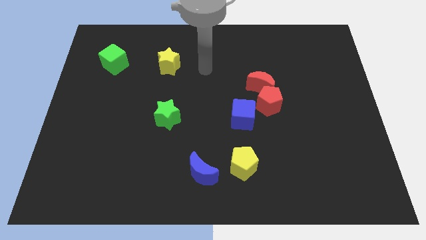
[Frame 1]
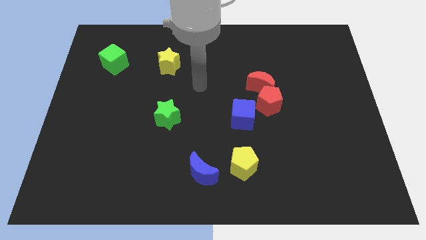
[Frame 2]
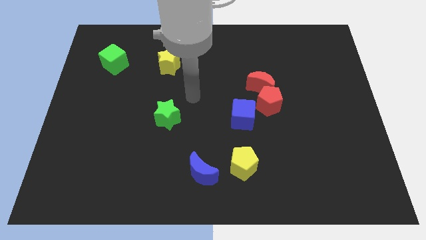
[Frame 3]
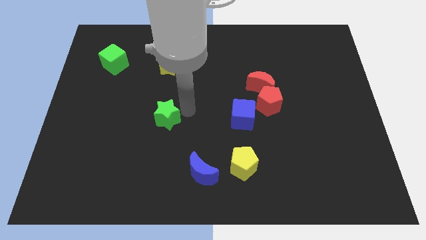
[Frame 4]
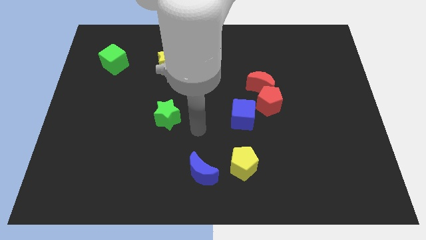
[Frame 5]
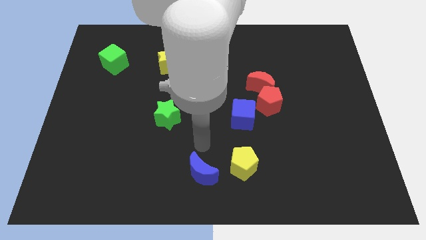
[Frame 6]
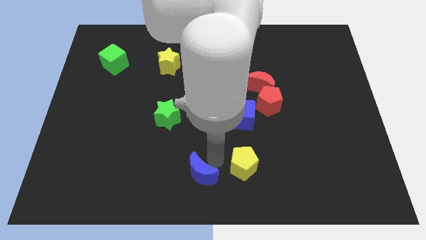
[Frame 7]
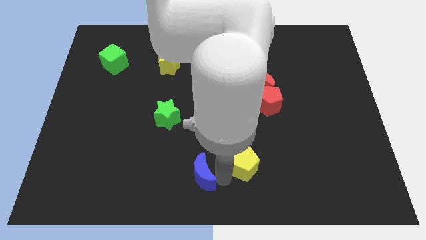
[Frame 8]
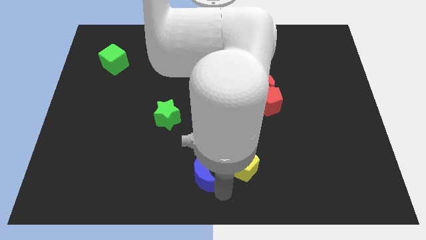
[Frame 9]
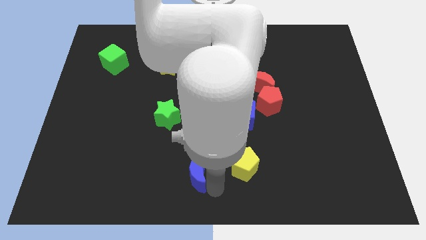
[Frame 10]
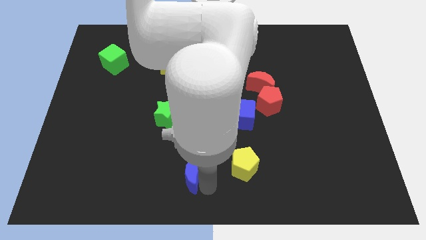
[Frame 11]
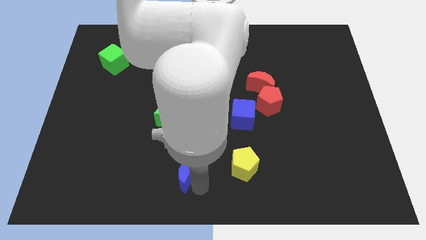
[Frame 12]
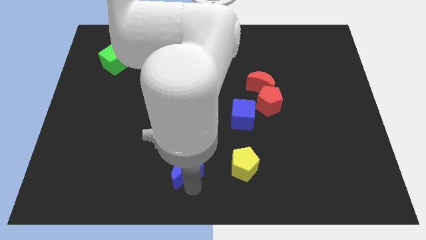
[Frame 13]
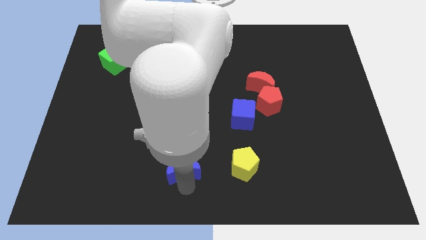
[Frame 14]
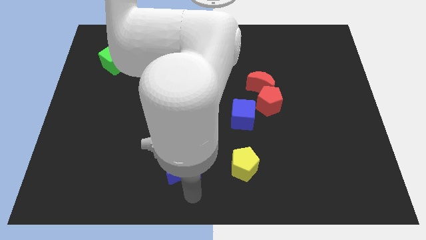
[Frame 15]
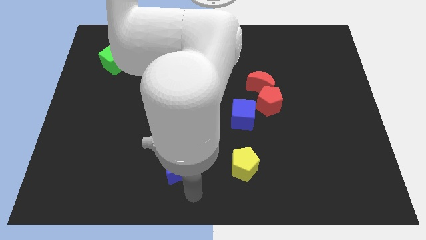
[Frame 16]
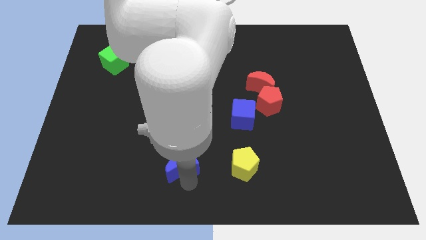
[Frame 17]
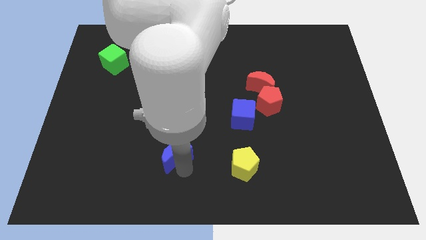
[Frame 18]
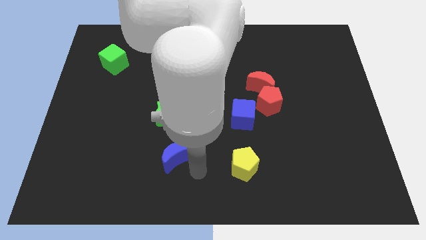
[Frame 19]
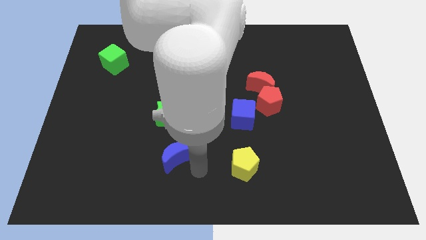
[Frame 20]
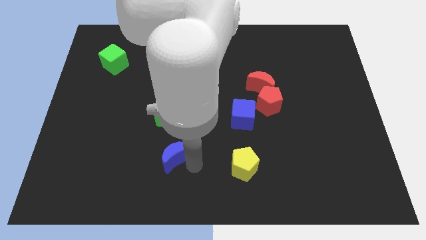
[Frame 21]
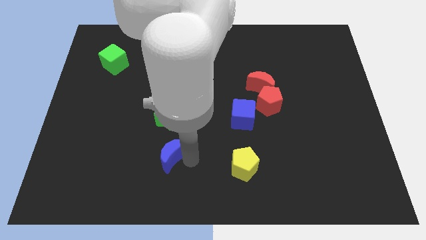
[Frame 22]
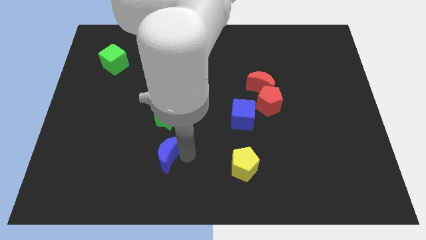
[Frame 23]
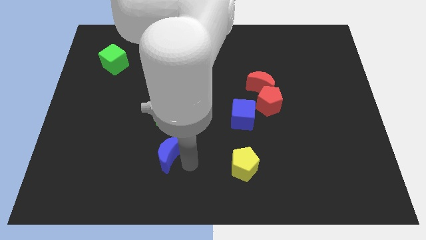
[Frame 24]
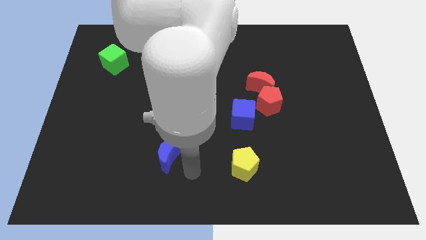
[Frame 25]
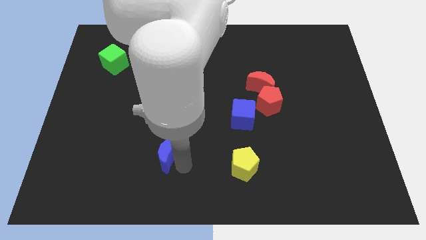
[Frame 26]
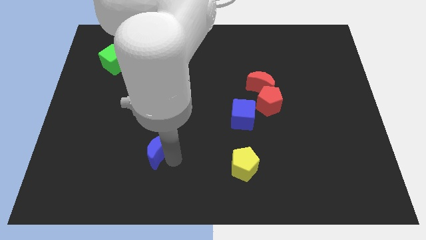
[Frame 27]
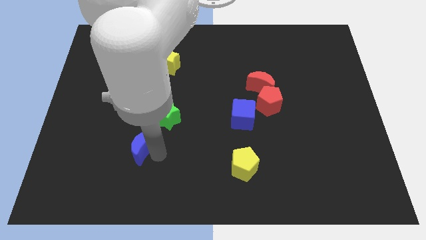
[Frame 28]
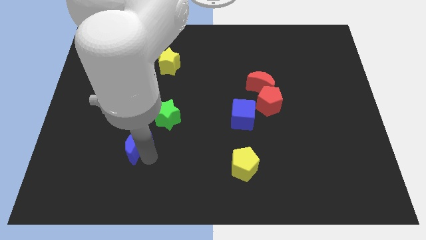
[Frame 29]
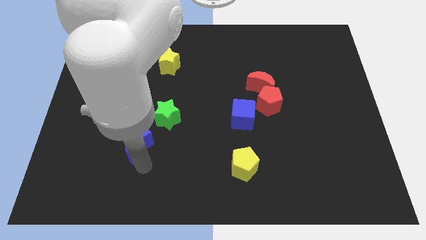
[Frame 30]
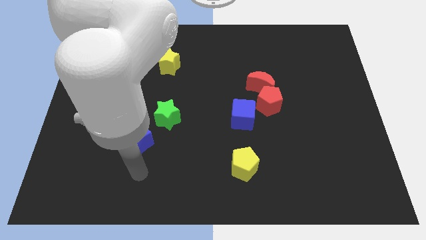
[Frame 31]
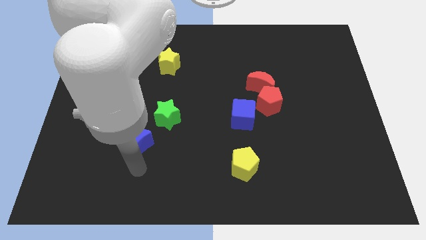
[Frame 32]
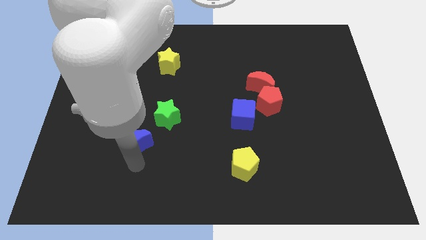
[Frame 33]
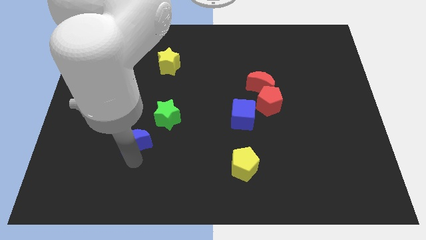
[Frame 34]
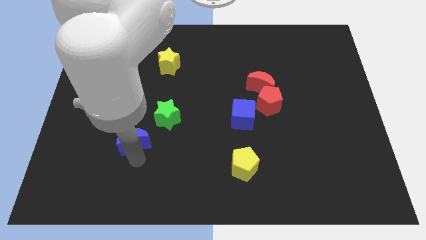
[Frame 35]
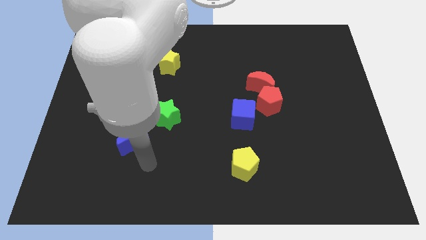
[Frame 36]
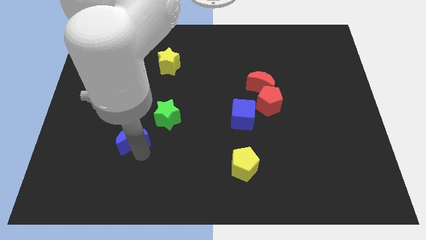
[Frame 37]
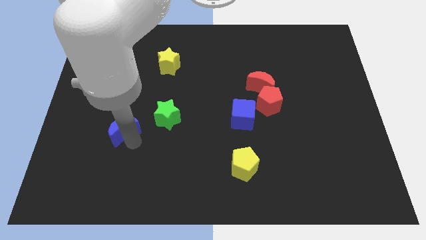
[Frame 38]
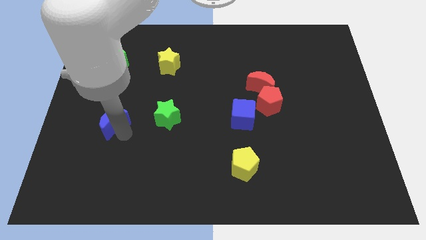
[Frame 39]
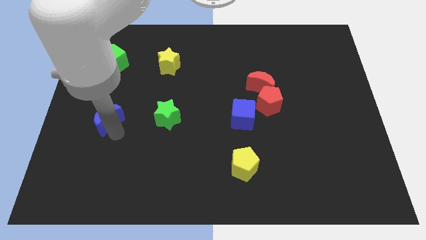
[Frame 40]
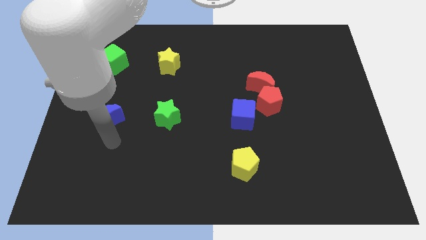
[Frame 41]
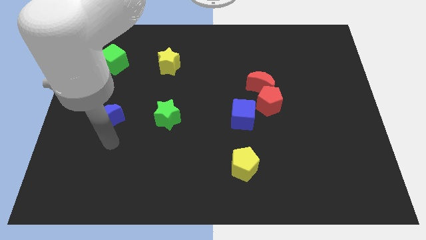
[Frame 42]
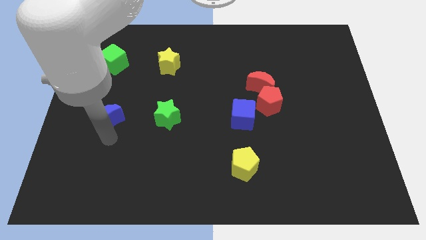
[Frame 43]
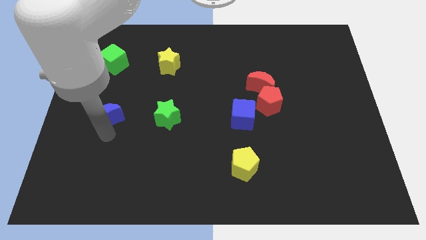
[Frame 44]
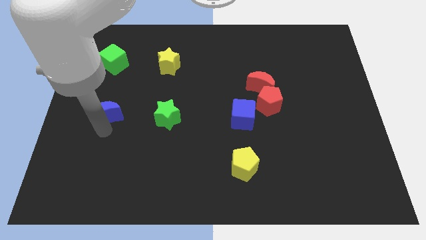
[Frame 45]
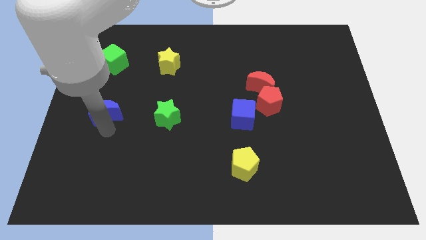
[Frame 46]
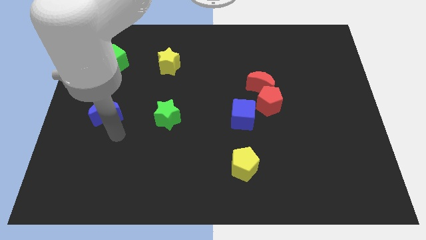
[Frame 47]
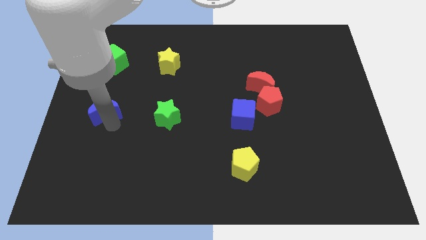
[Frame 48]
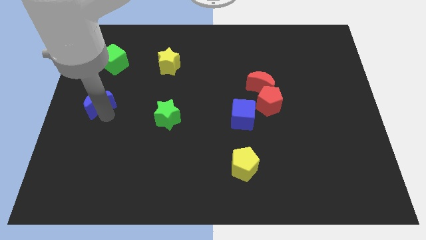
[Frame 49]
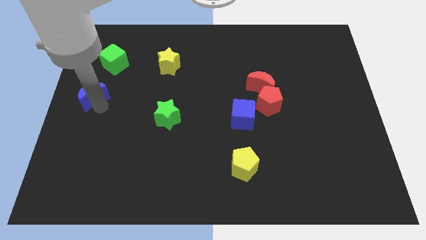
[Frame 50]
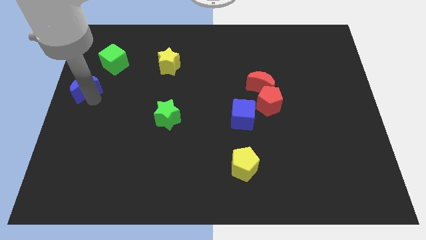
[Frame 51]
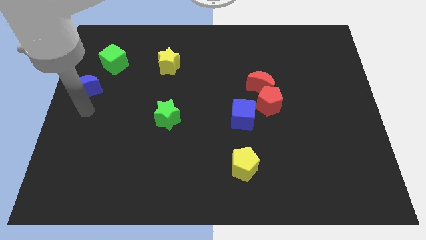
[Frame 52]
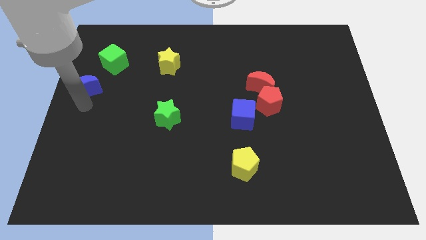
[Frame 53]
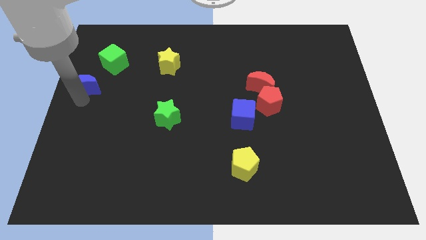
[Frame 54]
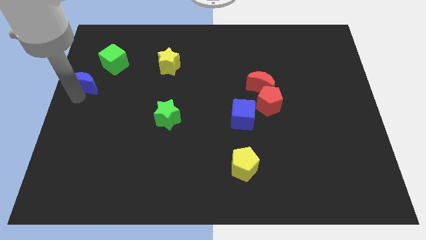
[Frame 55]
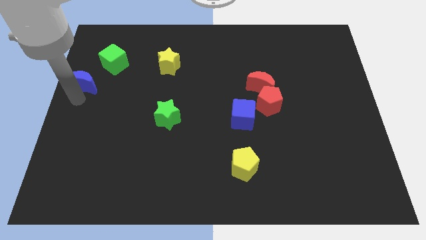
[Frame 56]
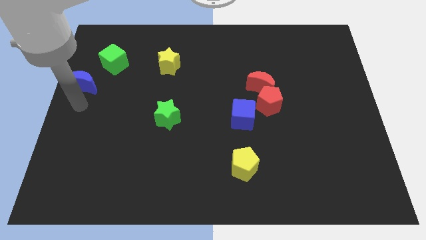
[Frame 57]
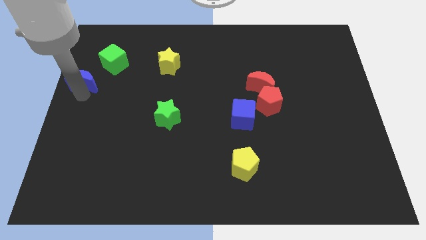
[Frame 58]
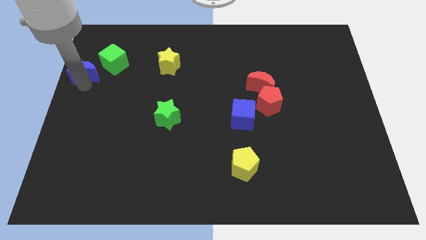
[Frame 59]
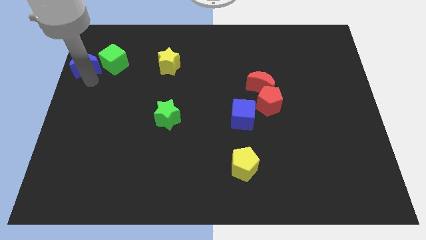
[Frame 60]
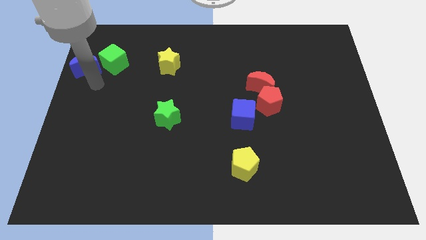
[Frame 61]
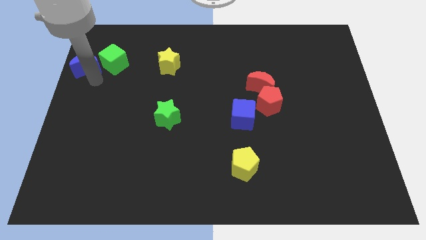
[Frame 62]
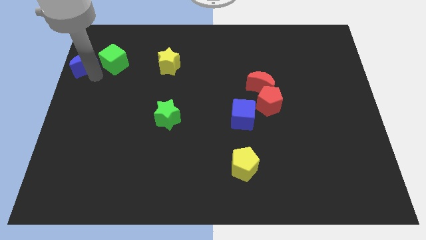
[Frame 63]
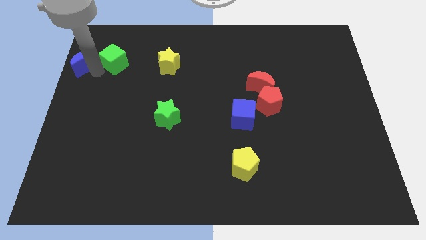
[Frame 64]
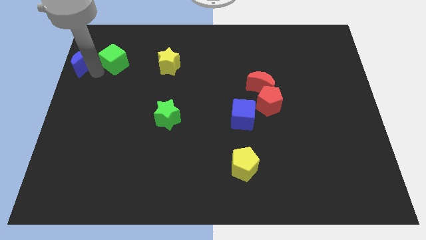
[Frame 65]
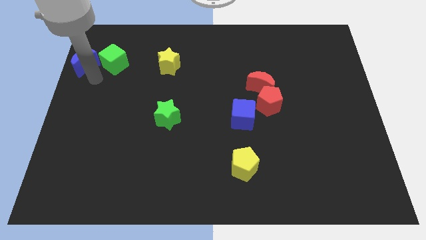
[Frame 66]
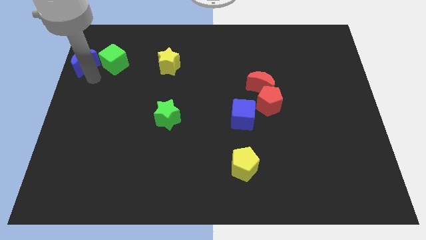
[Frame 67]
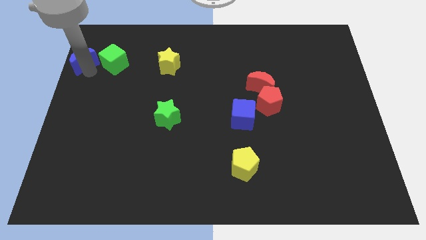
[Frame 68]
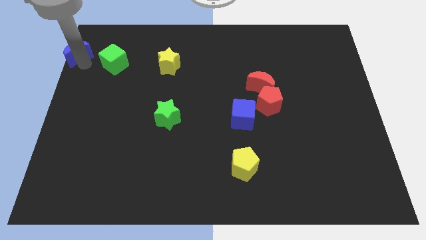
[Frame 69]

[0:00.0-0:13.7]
move the blue moon to the upper left corner
